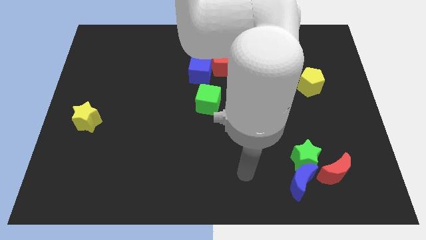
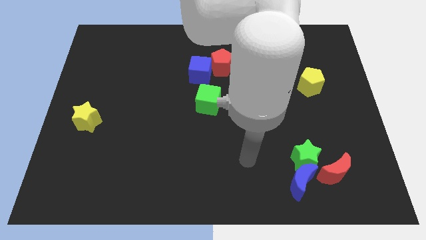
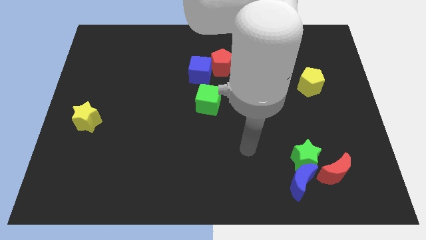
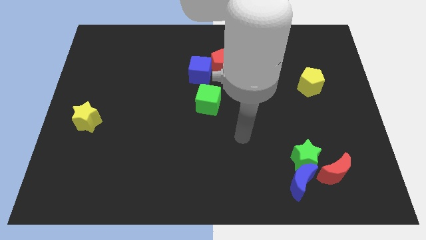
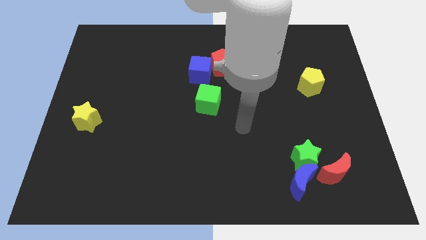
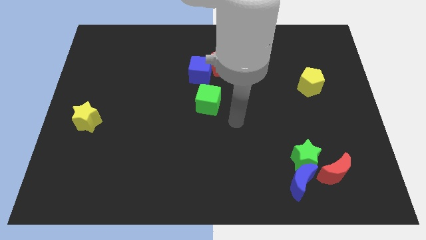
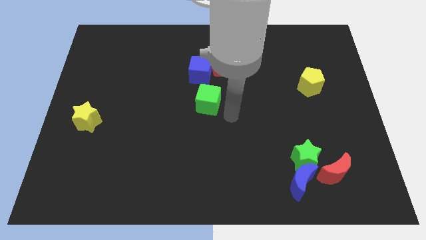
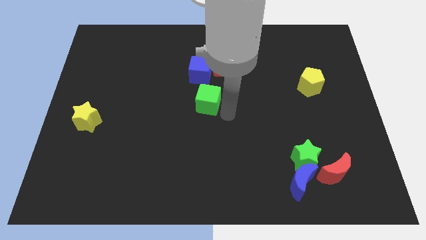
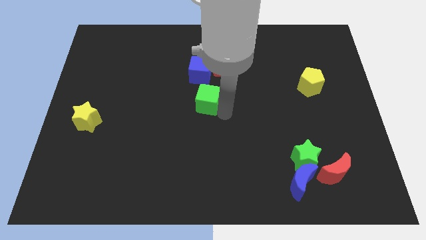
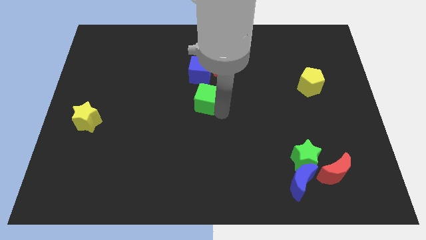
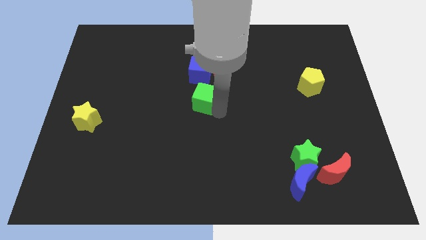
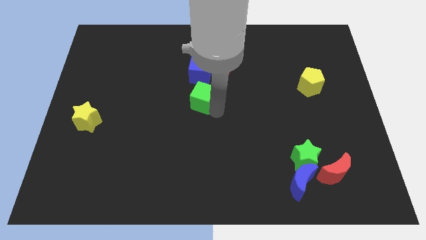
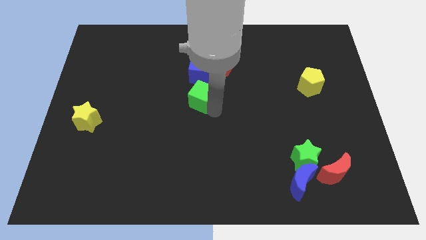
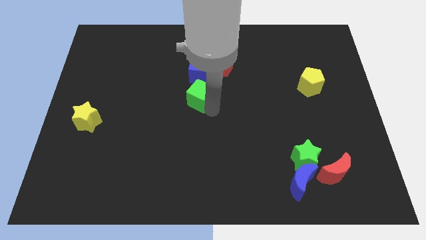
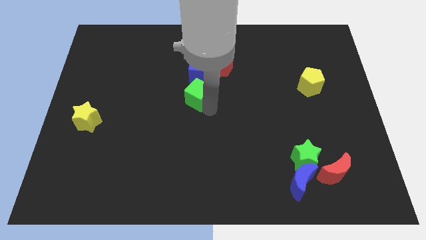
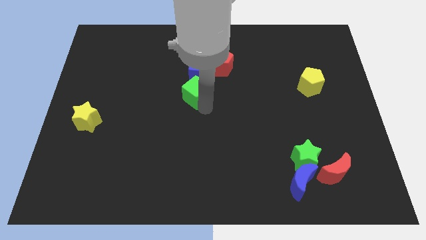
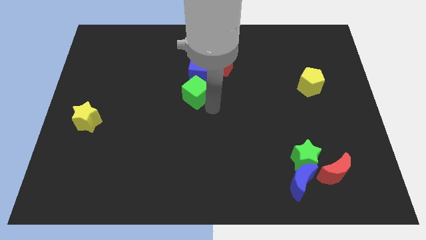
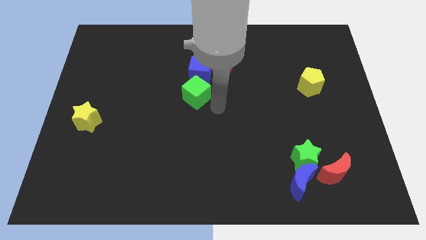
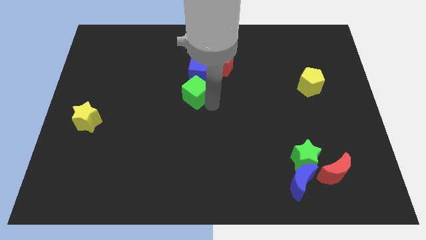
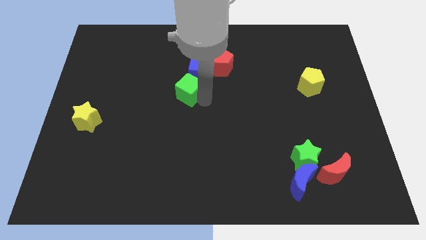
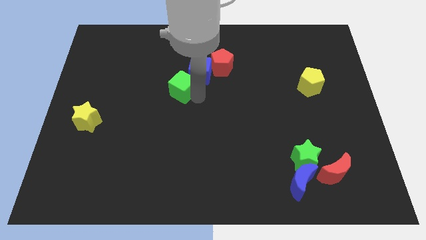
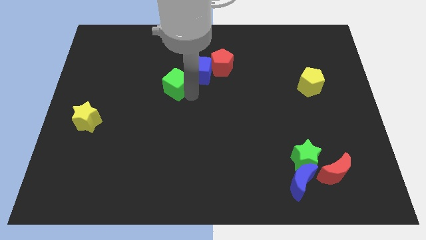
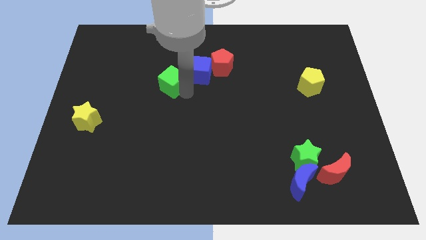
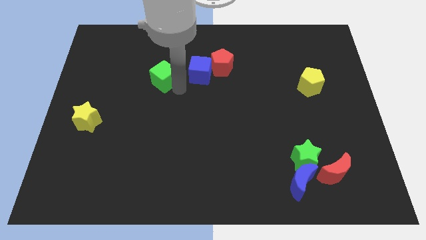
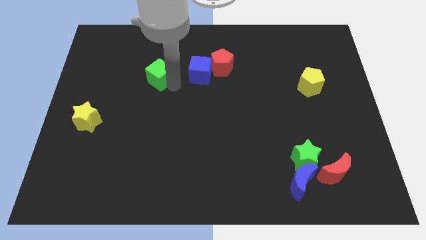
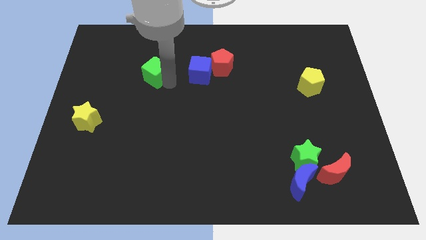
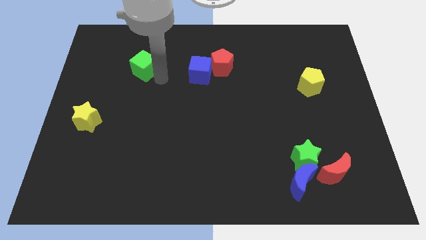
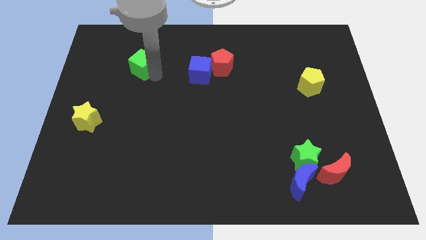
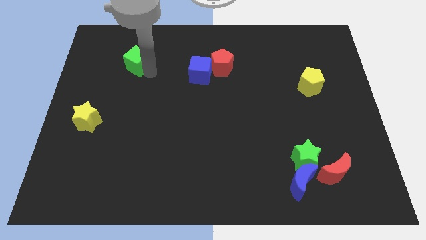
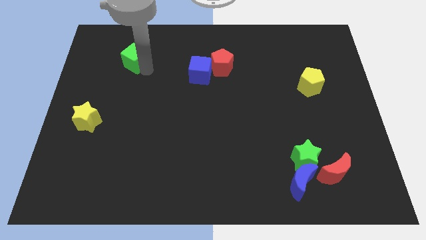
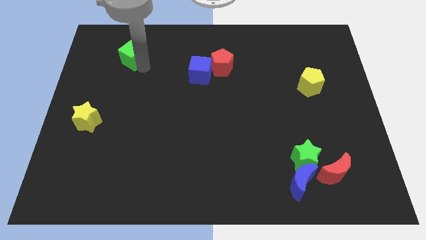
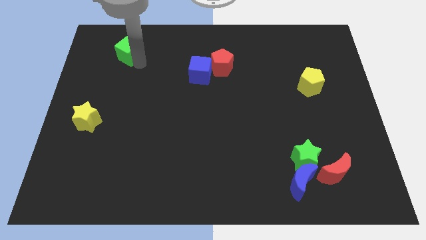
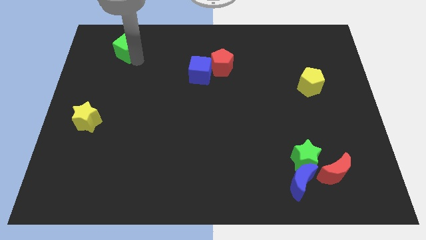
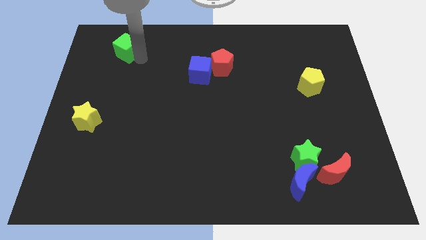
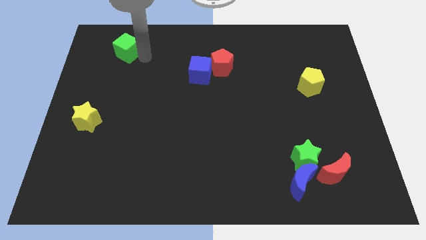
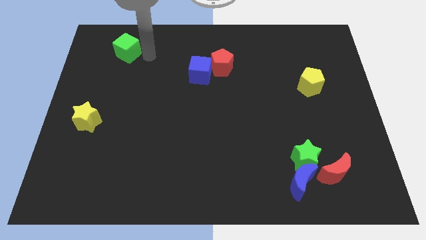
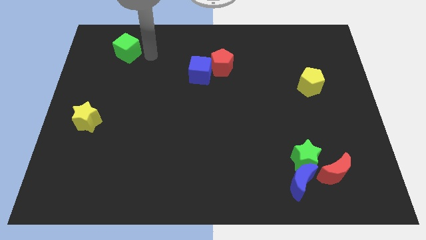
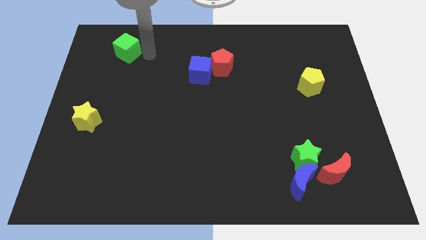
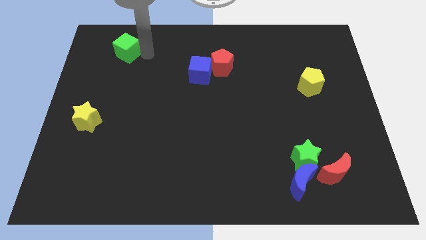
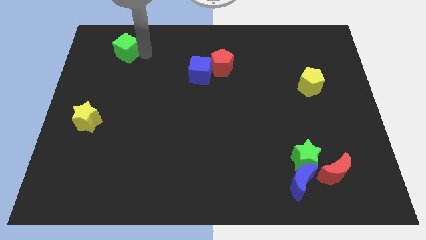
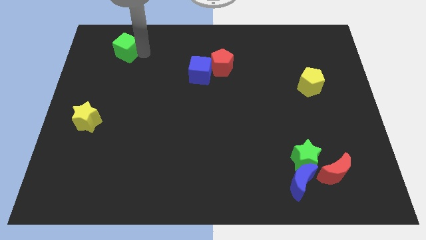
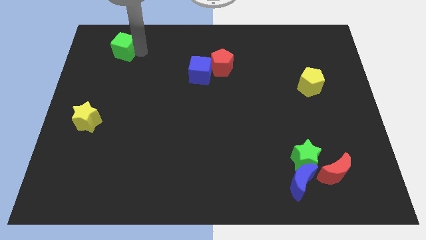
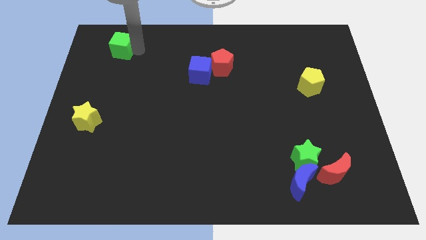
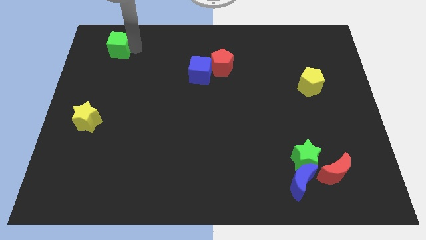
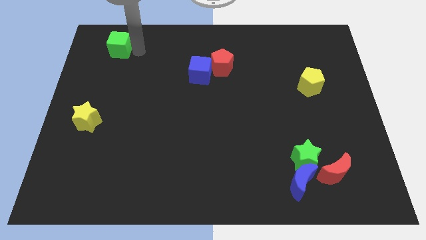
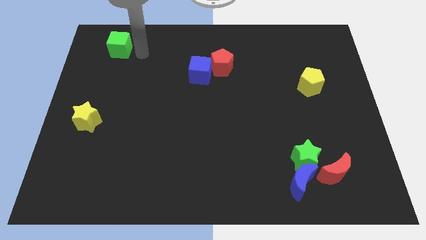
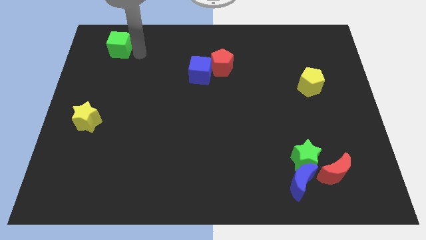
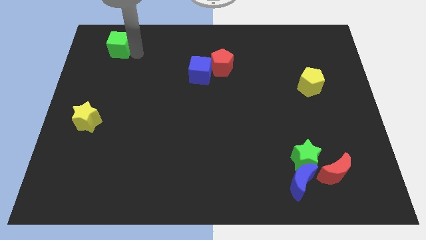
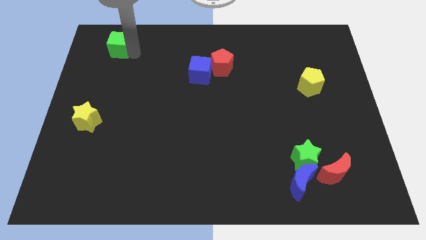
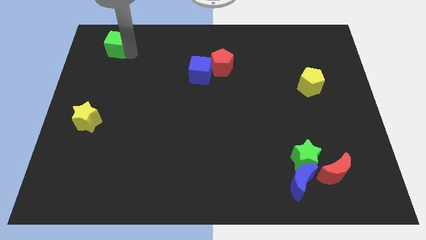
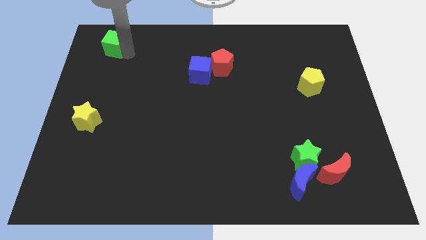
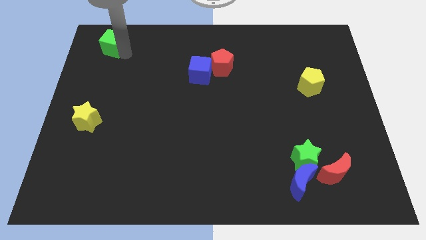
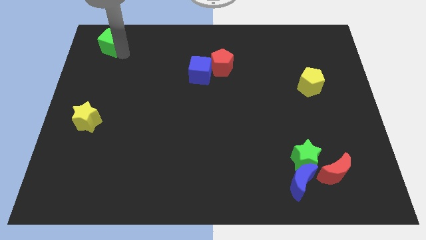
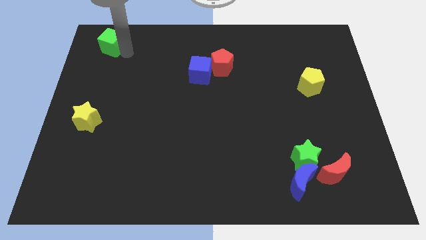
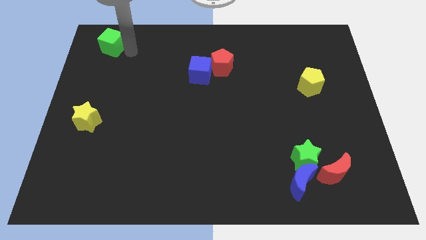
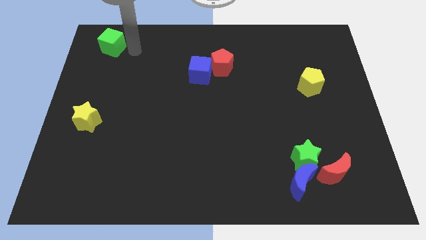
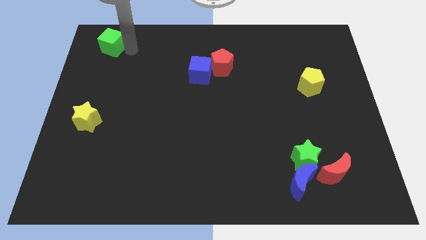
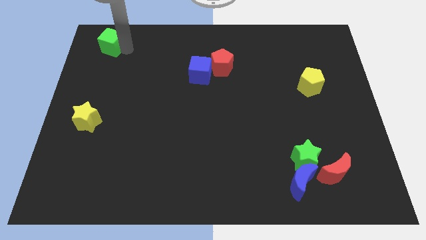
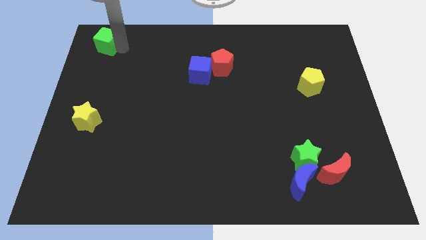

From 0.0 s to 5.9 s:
push the green cube to the top left of the board

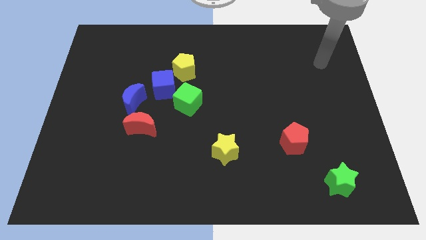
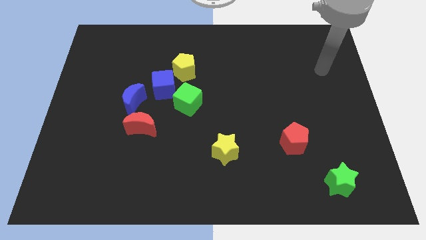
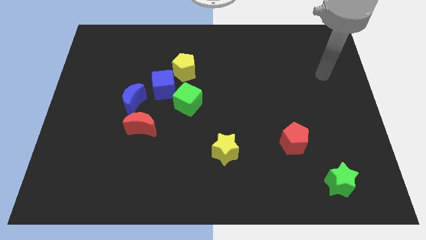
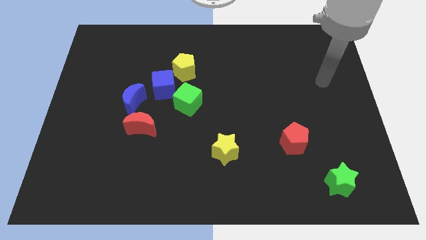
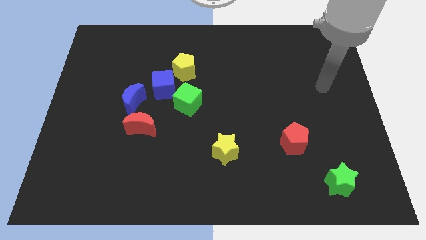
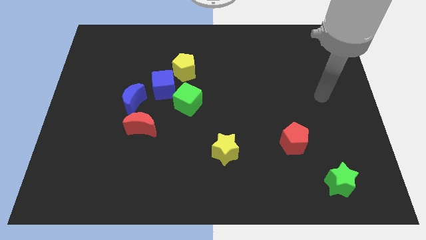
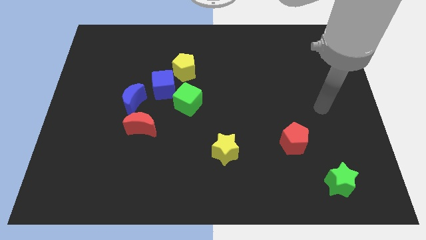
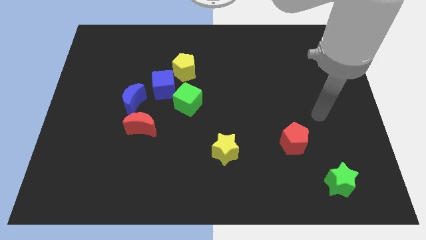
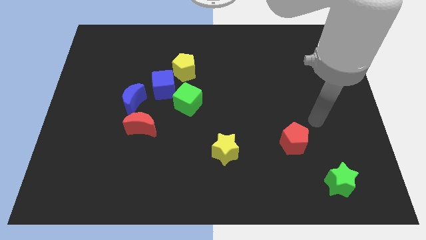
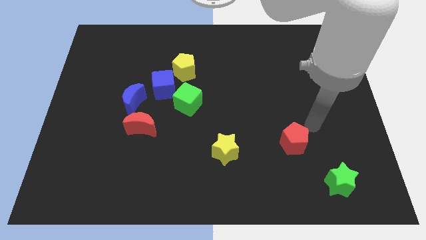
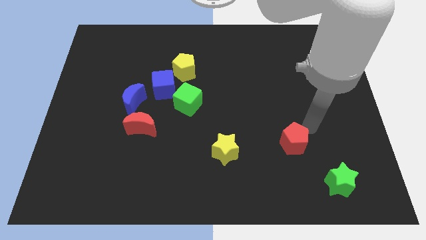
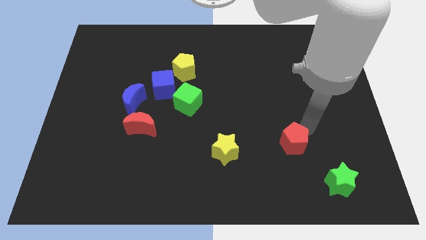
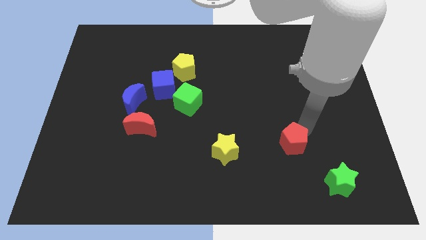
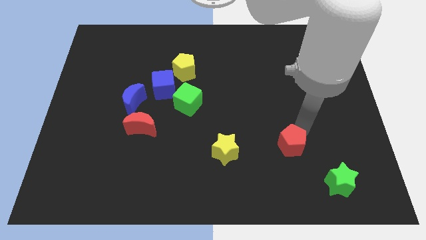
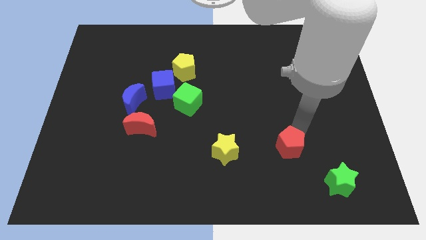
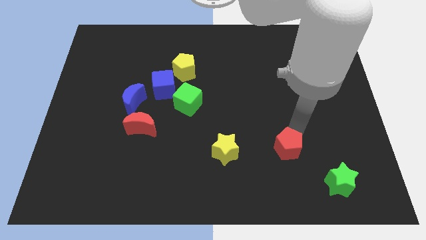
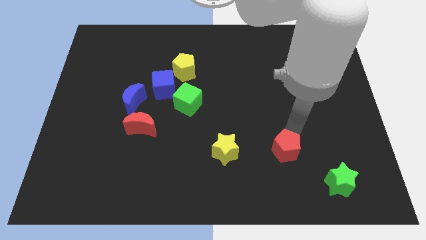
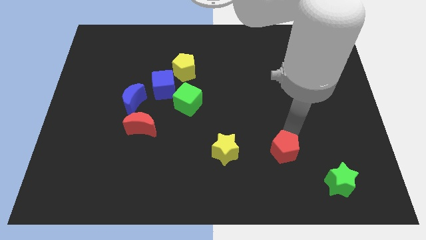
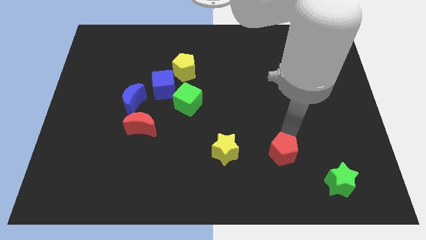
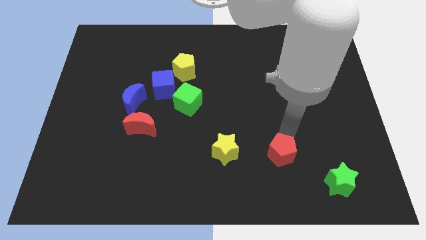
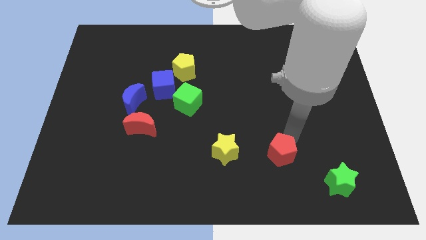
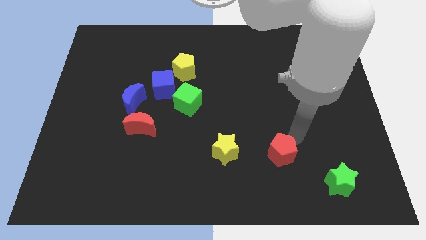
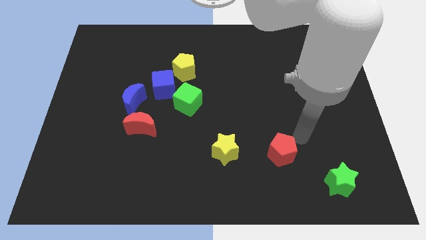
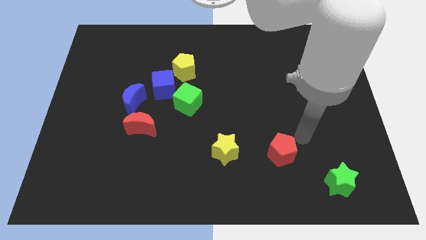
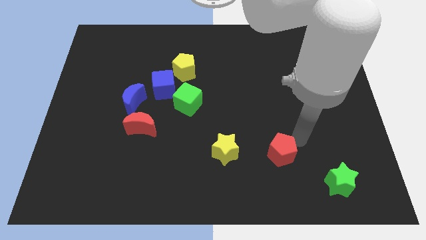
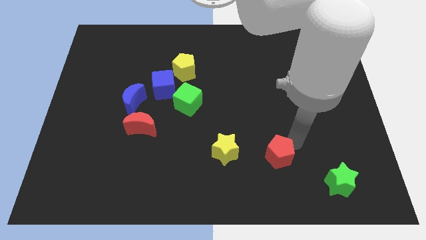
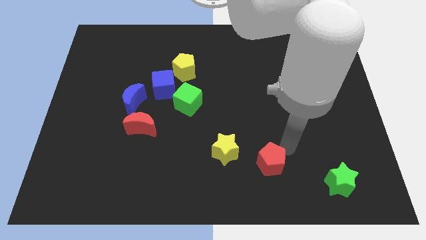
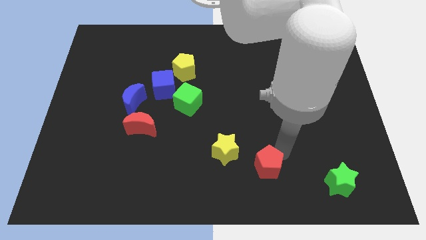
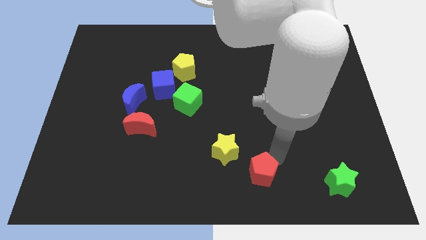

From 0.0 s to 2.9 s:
push the red pentagon to the bottom
